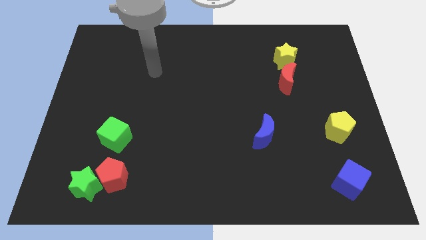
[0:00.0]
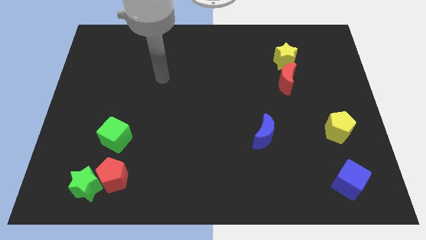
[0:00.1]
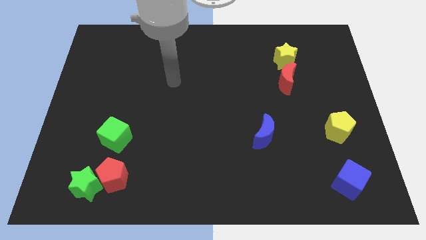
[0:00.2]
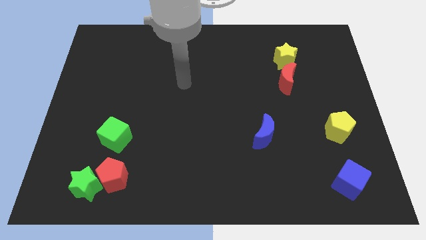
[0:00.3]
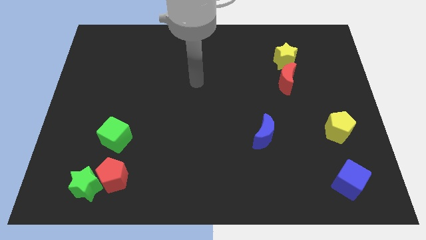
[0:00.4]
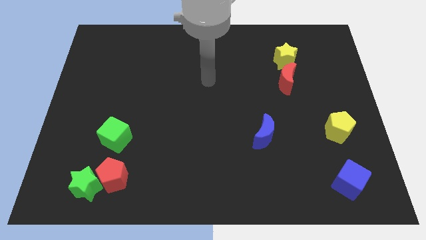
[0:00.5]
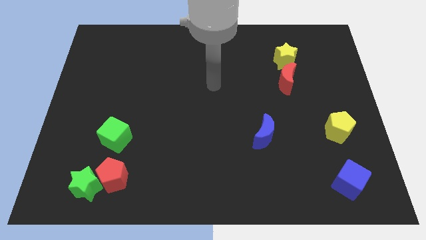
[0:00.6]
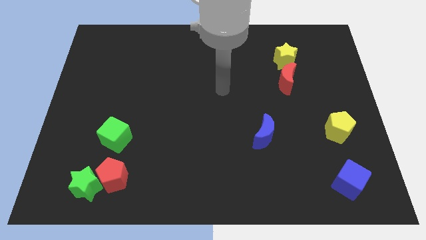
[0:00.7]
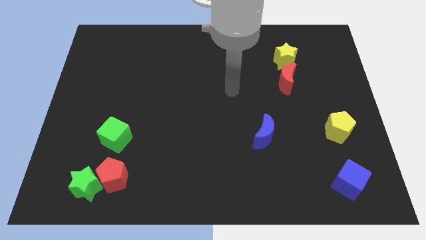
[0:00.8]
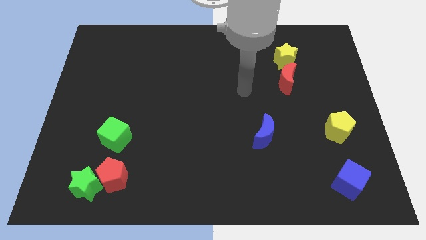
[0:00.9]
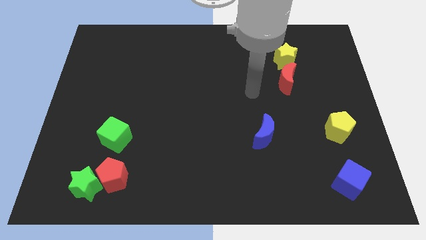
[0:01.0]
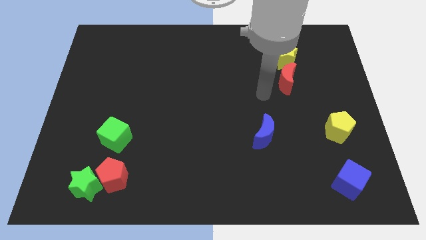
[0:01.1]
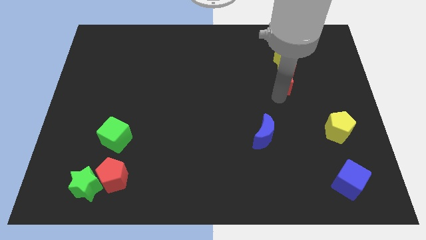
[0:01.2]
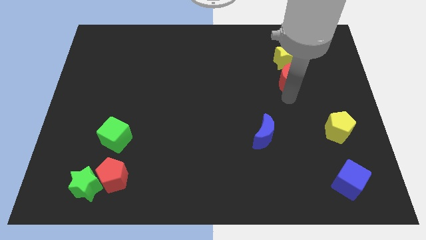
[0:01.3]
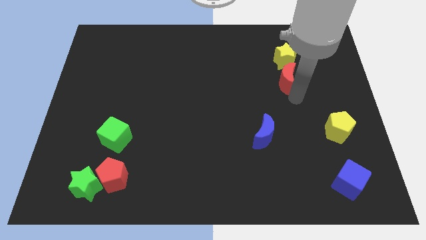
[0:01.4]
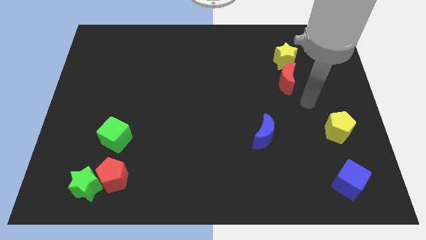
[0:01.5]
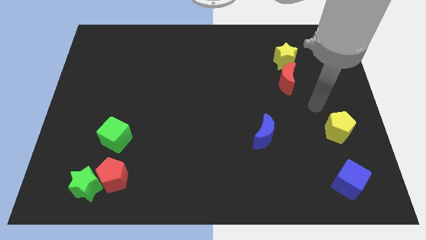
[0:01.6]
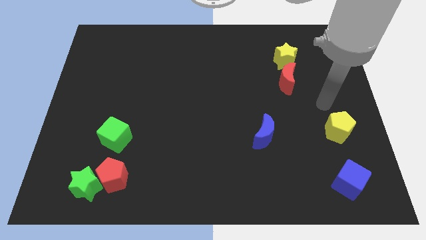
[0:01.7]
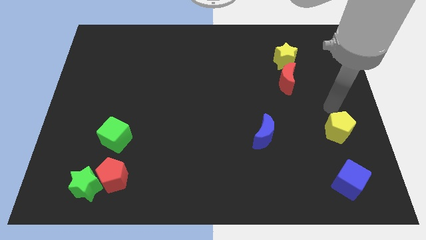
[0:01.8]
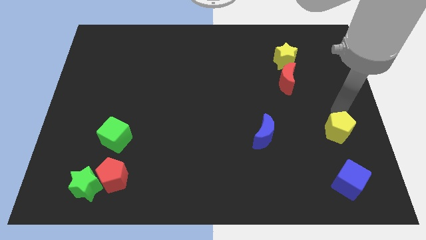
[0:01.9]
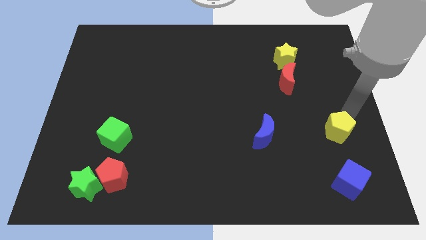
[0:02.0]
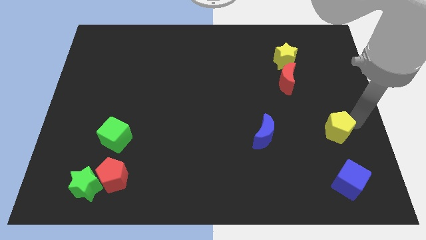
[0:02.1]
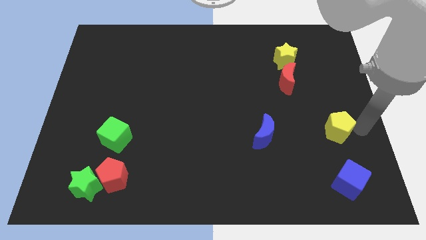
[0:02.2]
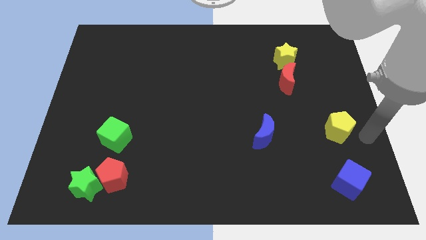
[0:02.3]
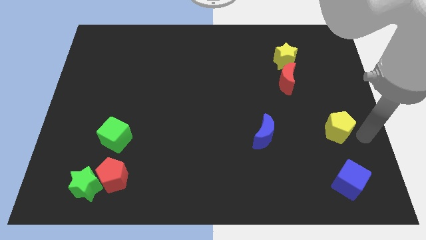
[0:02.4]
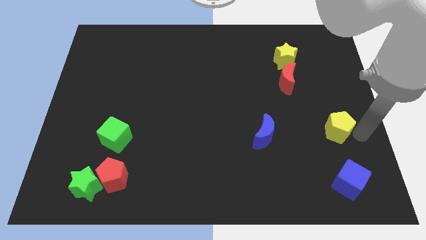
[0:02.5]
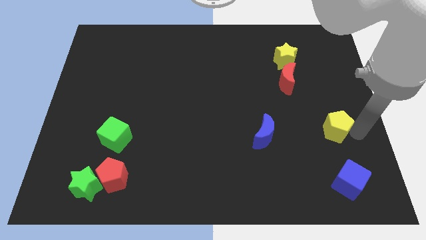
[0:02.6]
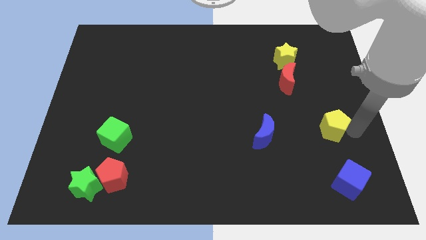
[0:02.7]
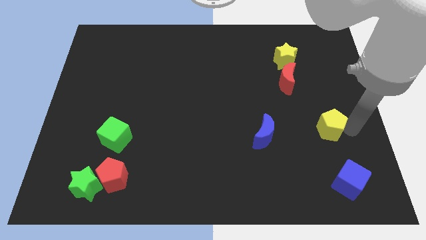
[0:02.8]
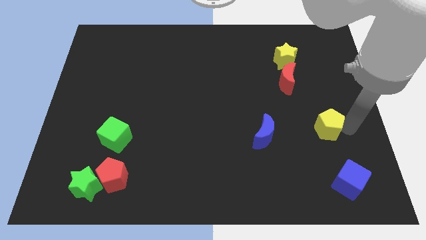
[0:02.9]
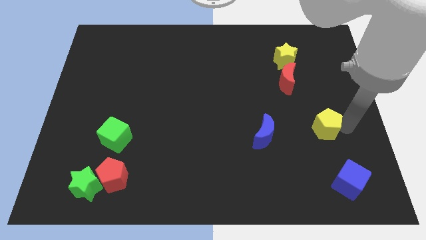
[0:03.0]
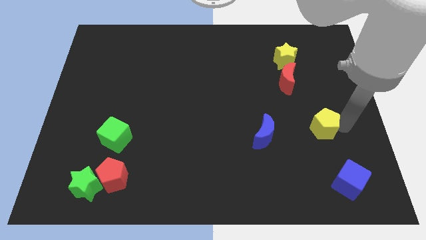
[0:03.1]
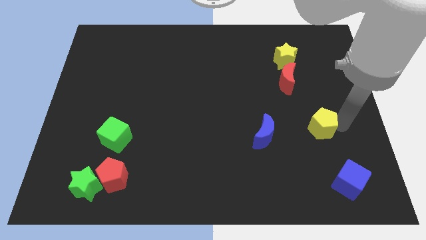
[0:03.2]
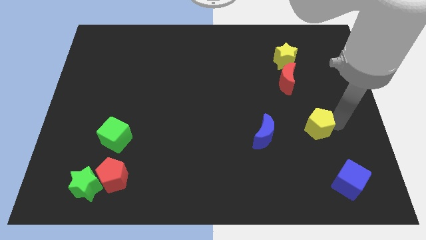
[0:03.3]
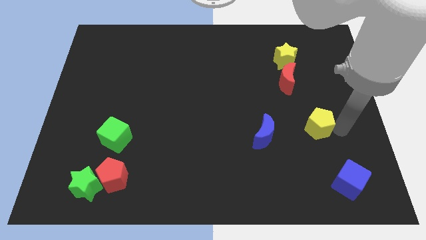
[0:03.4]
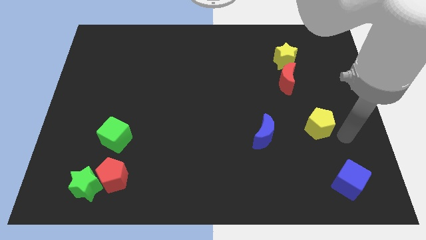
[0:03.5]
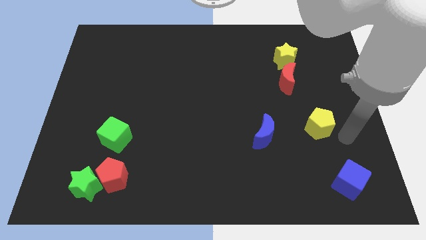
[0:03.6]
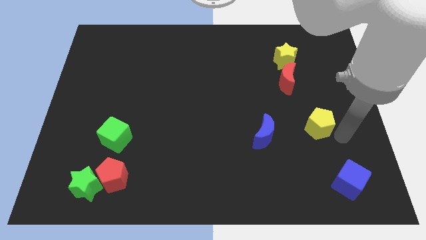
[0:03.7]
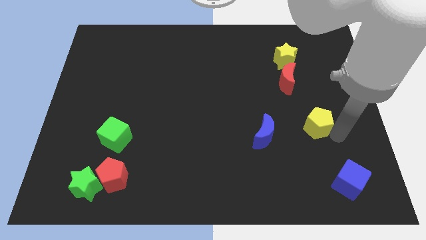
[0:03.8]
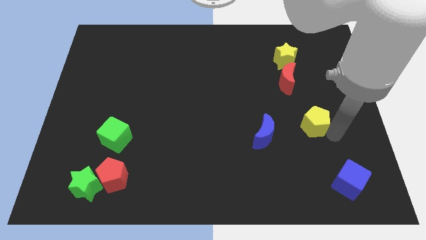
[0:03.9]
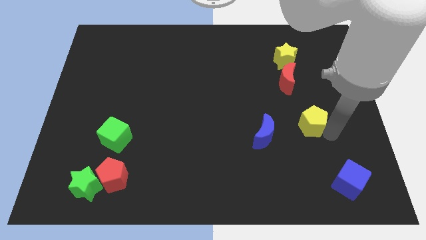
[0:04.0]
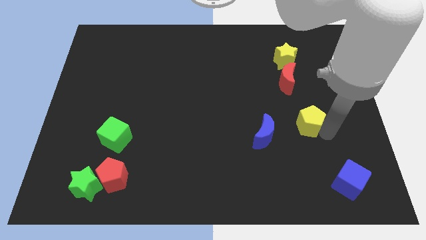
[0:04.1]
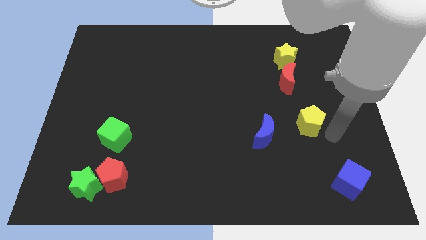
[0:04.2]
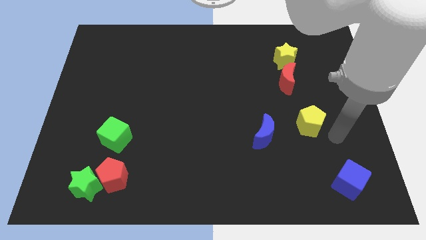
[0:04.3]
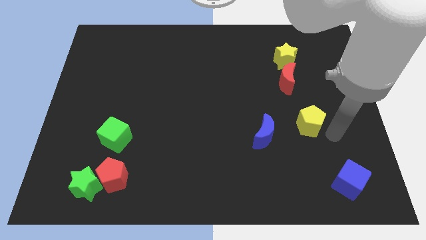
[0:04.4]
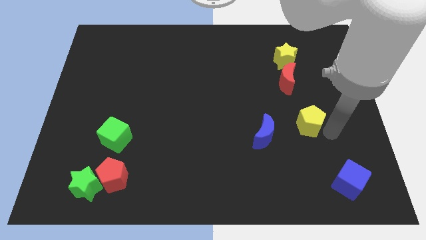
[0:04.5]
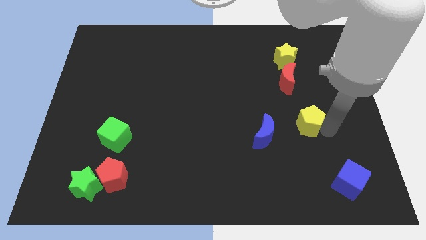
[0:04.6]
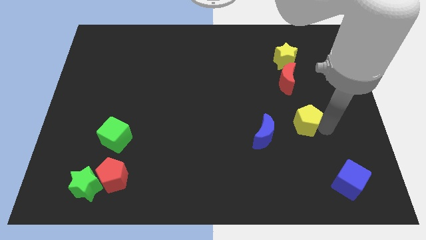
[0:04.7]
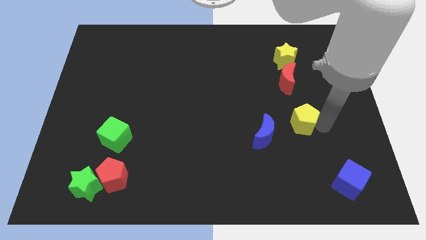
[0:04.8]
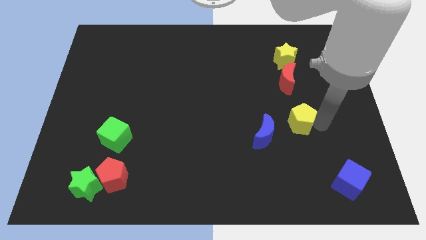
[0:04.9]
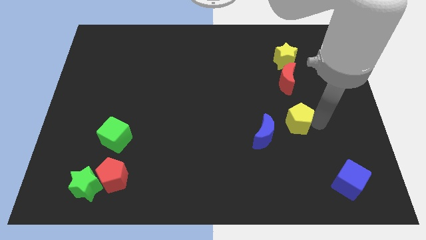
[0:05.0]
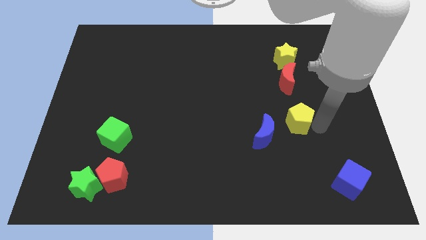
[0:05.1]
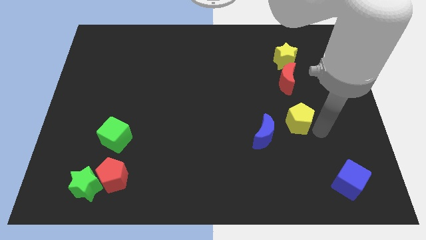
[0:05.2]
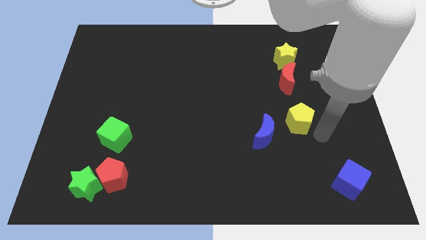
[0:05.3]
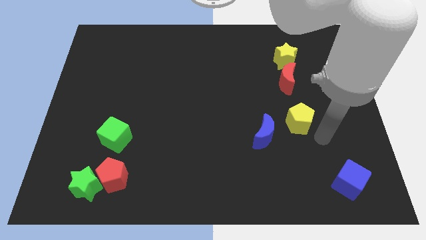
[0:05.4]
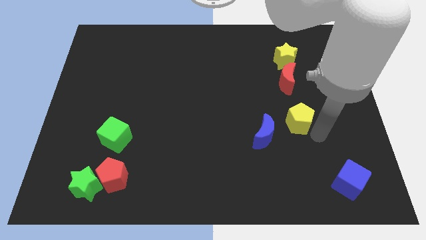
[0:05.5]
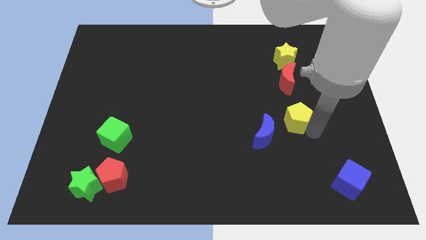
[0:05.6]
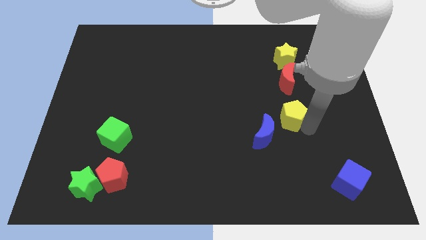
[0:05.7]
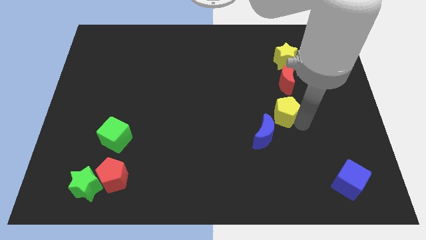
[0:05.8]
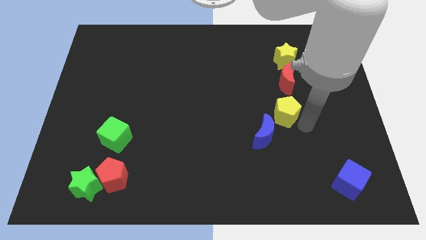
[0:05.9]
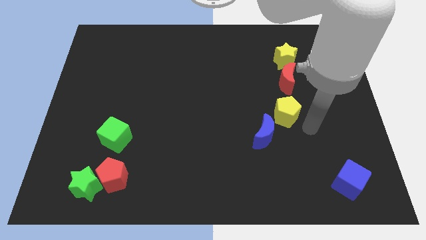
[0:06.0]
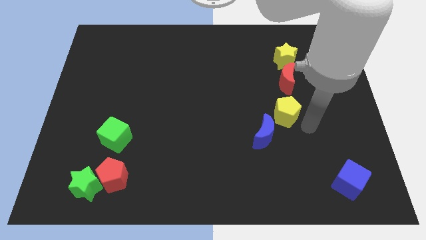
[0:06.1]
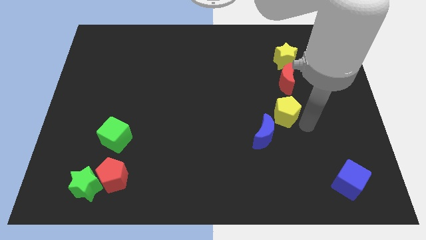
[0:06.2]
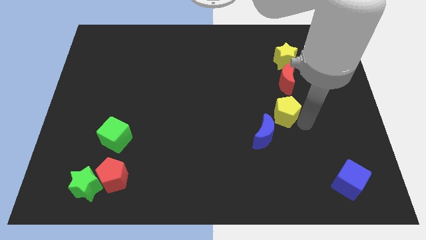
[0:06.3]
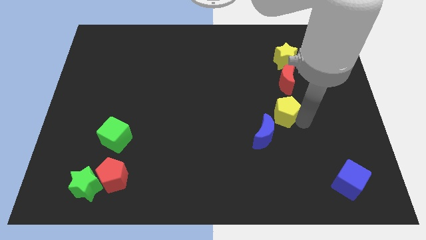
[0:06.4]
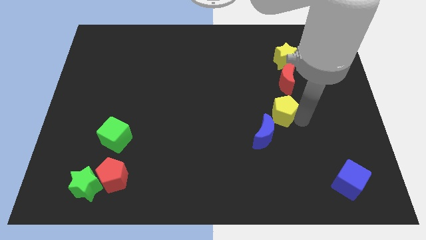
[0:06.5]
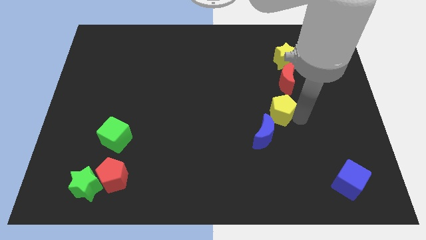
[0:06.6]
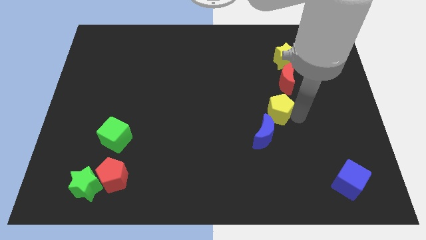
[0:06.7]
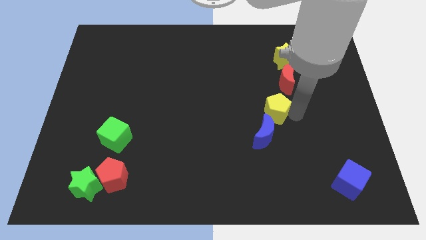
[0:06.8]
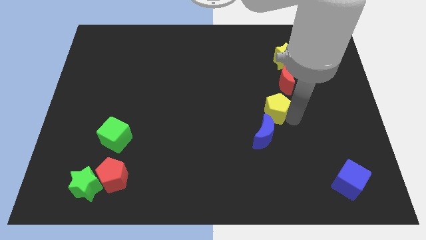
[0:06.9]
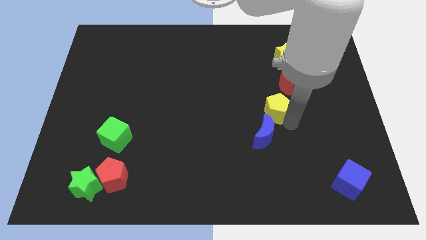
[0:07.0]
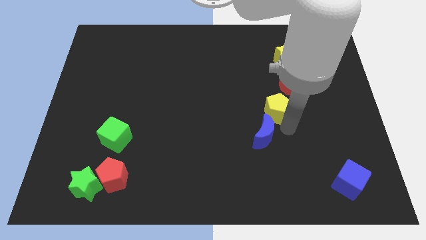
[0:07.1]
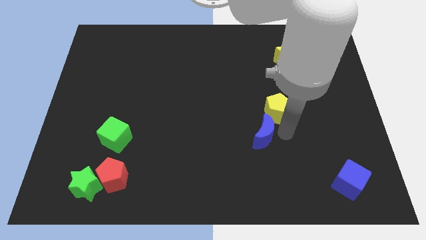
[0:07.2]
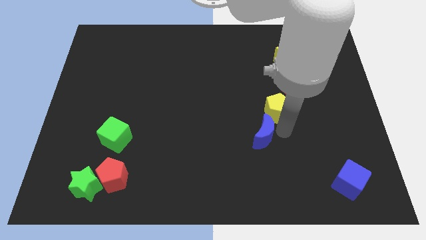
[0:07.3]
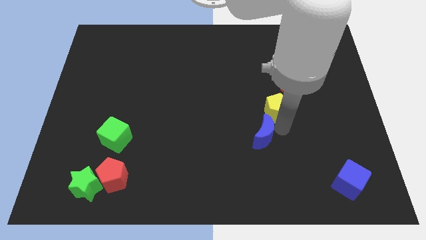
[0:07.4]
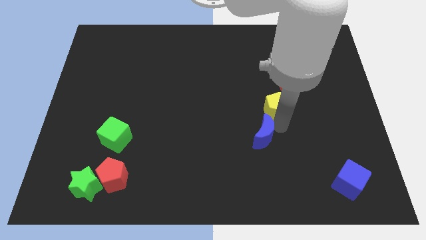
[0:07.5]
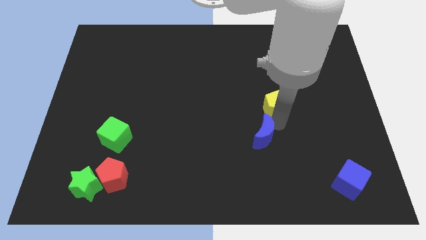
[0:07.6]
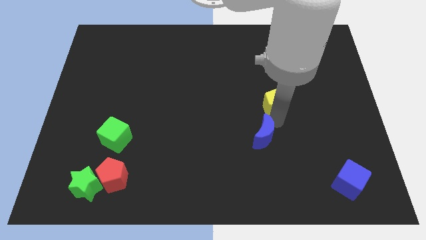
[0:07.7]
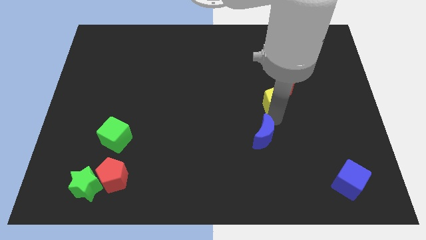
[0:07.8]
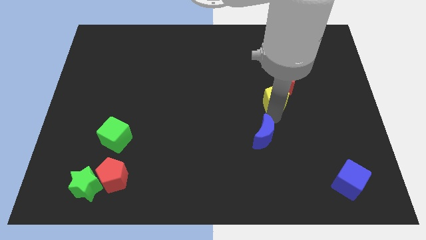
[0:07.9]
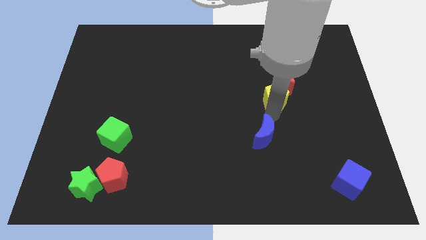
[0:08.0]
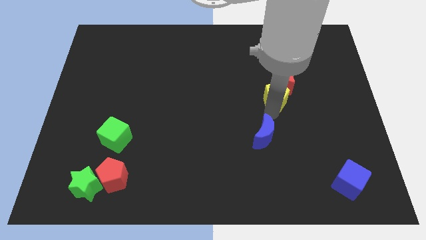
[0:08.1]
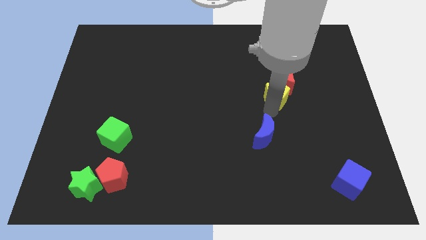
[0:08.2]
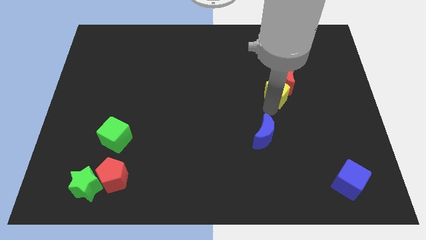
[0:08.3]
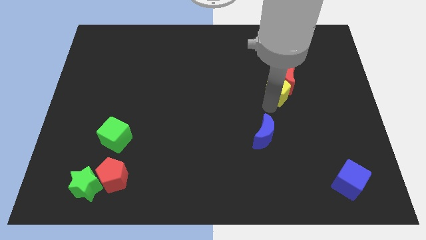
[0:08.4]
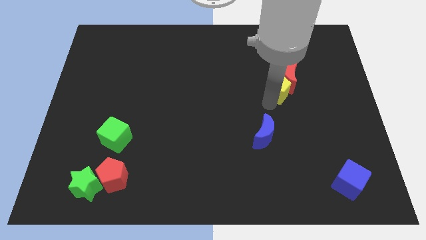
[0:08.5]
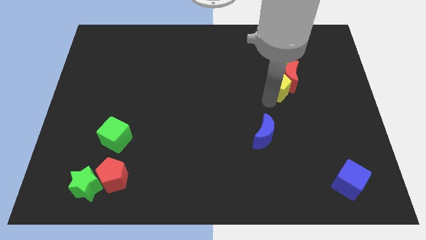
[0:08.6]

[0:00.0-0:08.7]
push the yellow pentagon diagonally down and to the left of the yellow star
